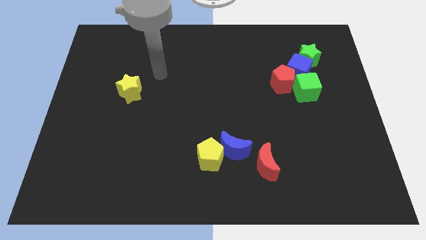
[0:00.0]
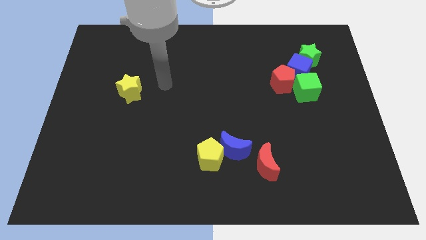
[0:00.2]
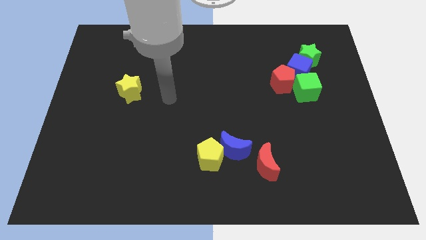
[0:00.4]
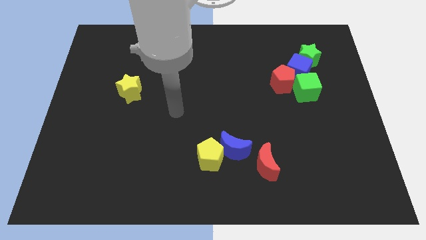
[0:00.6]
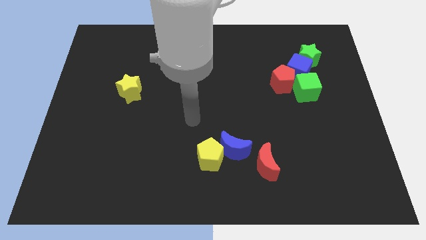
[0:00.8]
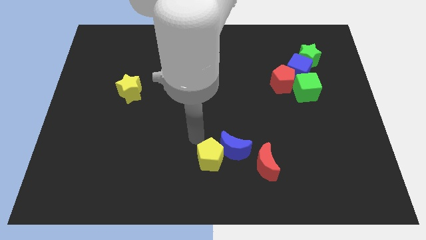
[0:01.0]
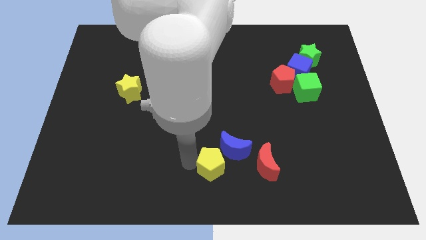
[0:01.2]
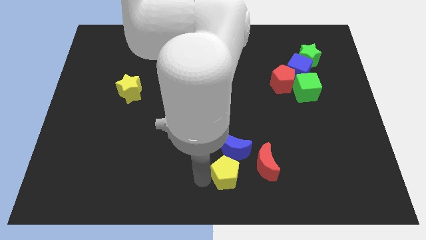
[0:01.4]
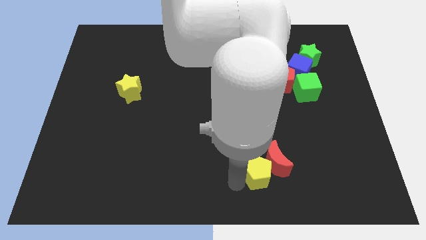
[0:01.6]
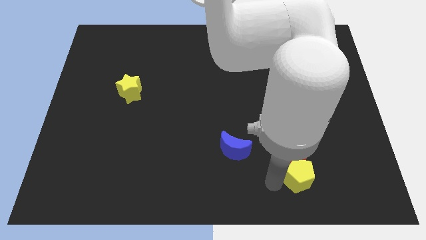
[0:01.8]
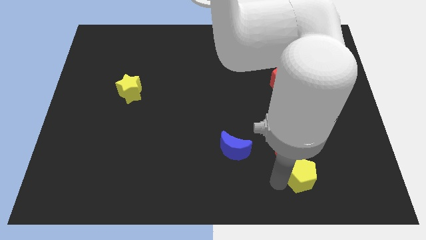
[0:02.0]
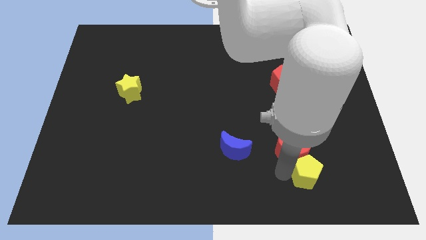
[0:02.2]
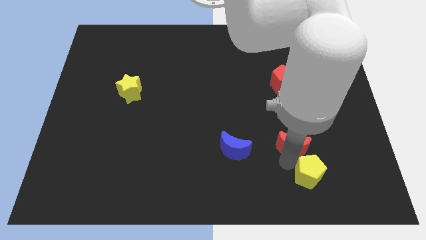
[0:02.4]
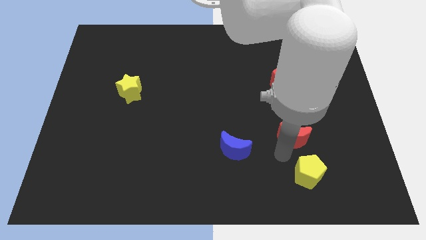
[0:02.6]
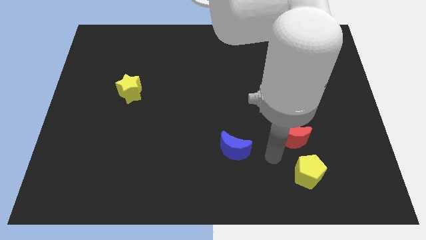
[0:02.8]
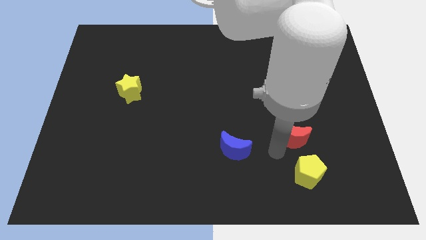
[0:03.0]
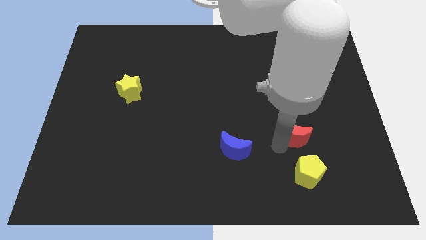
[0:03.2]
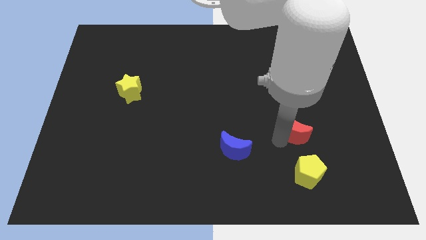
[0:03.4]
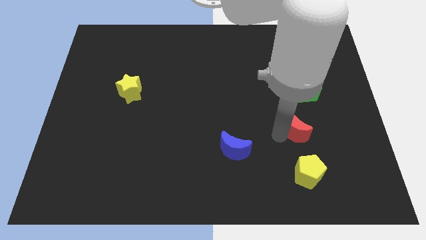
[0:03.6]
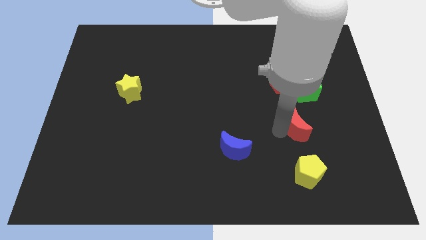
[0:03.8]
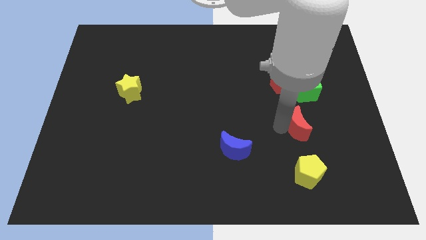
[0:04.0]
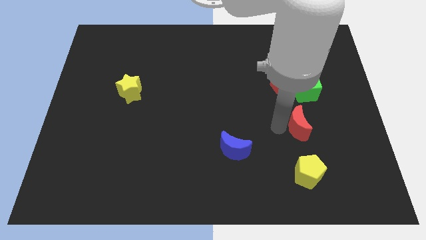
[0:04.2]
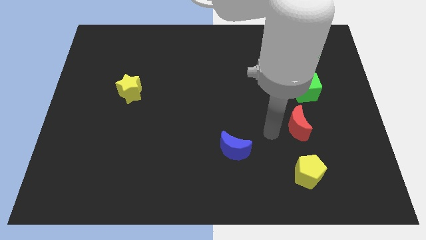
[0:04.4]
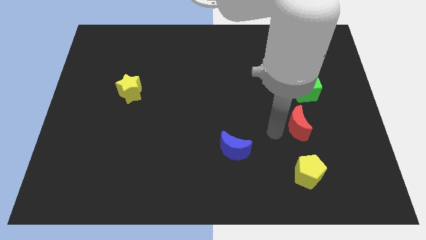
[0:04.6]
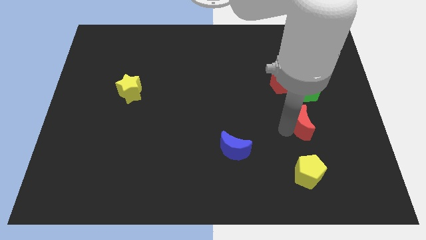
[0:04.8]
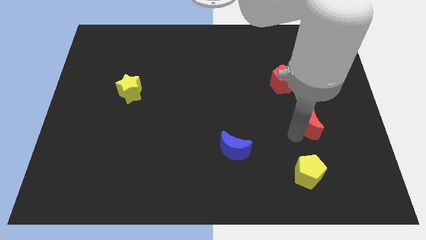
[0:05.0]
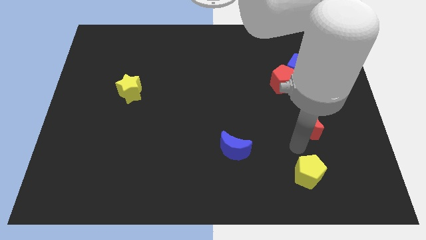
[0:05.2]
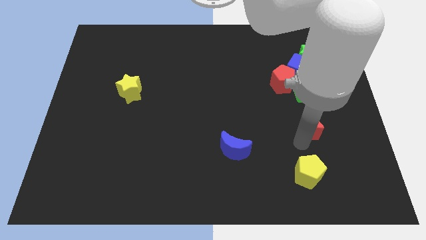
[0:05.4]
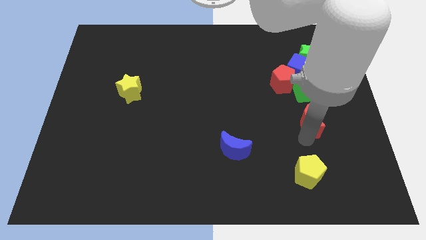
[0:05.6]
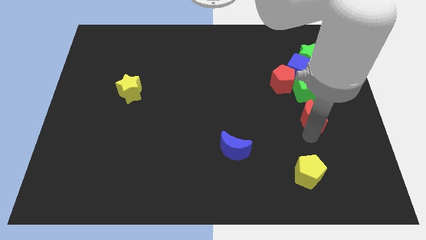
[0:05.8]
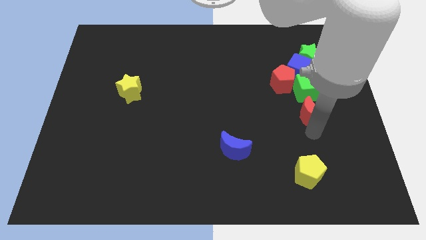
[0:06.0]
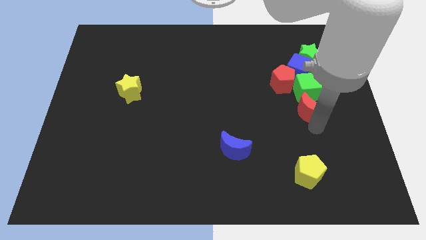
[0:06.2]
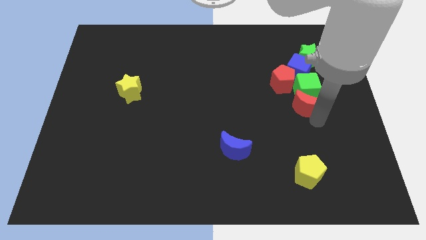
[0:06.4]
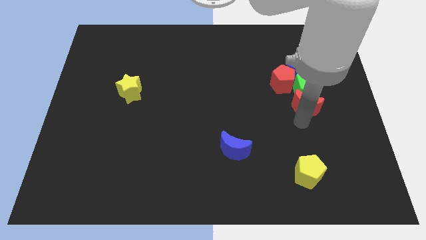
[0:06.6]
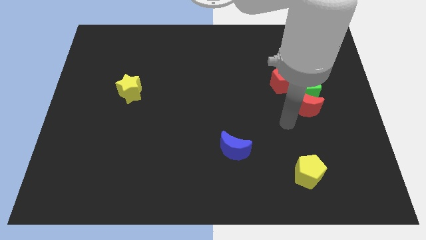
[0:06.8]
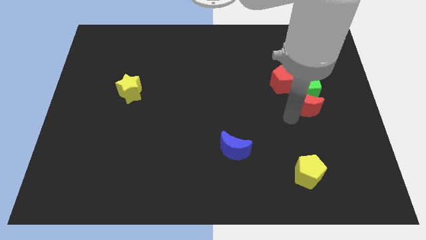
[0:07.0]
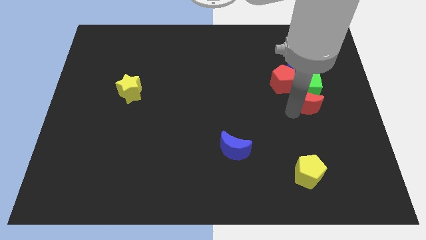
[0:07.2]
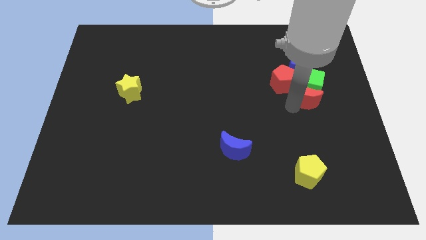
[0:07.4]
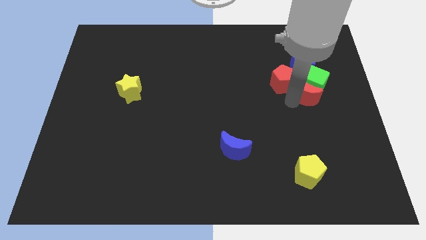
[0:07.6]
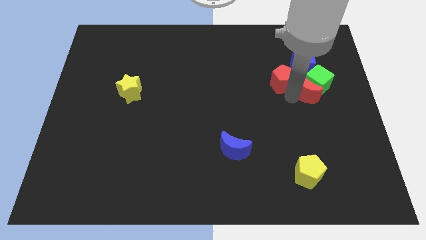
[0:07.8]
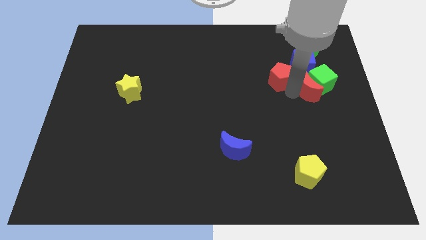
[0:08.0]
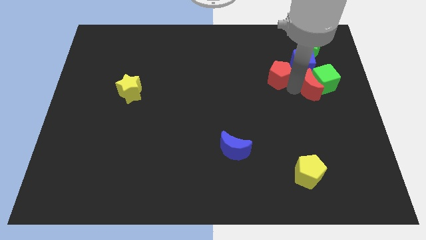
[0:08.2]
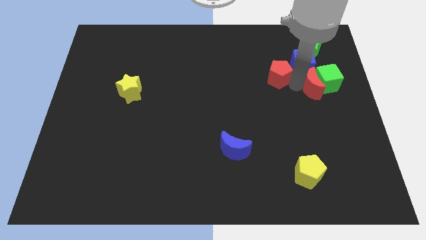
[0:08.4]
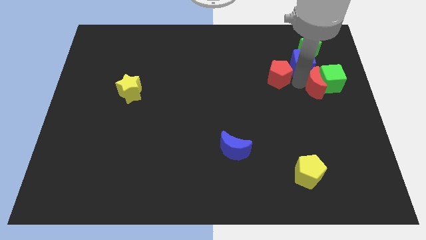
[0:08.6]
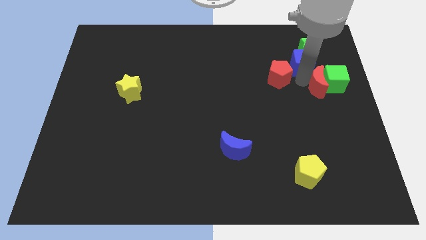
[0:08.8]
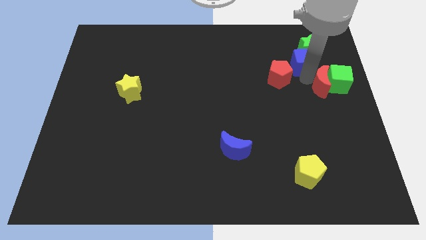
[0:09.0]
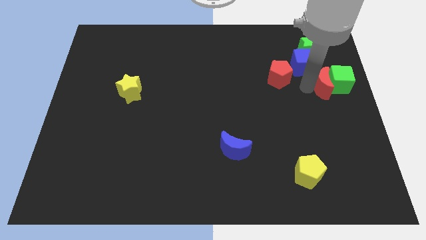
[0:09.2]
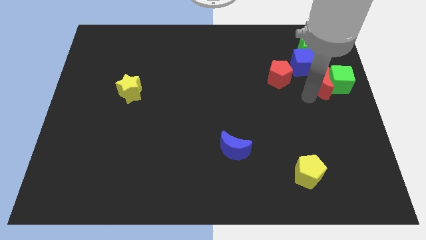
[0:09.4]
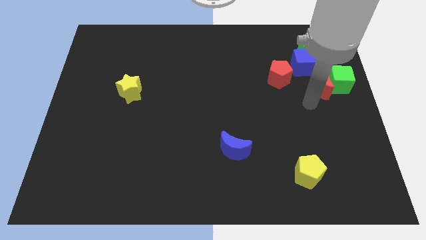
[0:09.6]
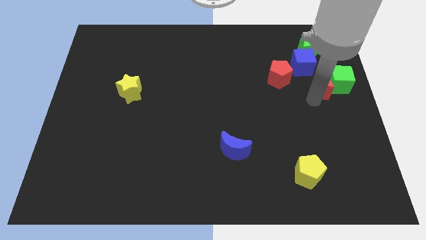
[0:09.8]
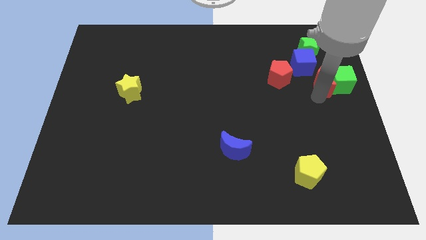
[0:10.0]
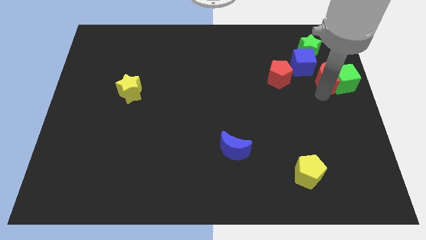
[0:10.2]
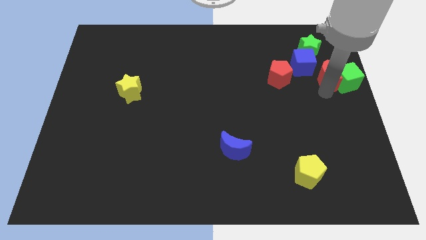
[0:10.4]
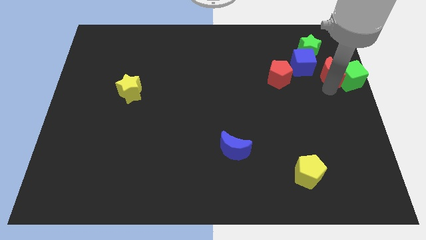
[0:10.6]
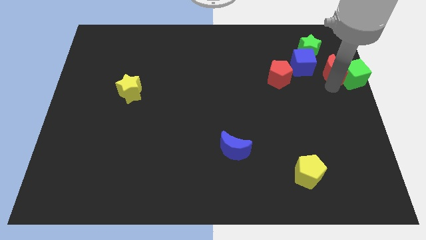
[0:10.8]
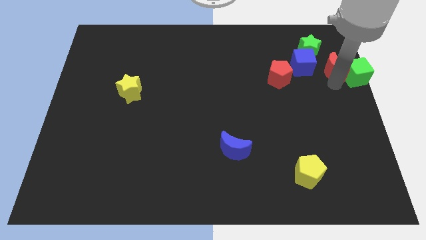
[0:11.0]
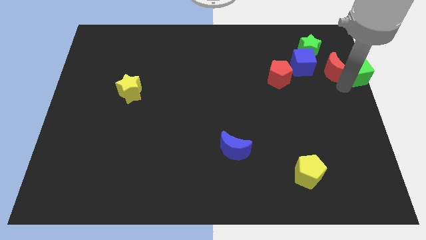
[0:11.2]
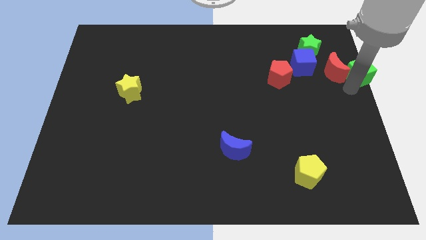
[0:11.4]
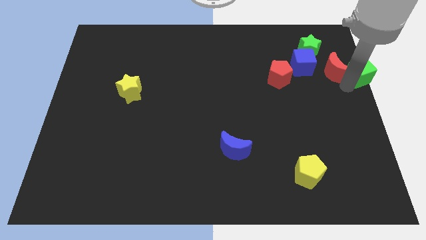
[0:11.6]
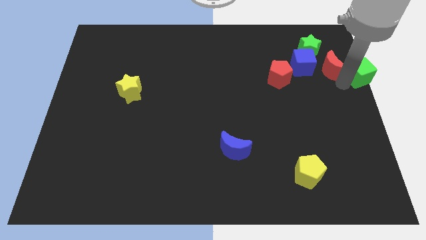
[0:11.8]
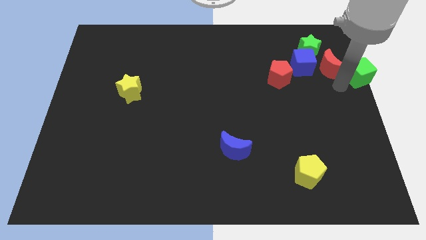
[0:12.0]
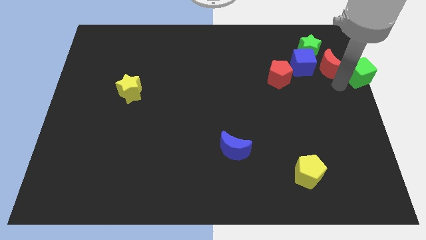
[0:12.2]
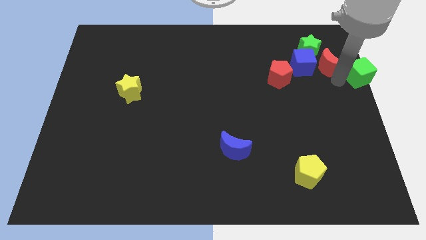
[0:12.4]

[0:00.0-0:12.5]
put the red moon to the top right of the blue cube
